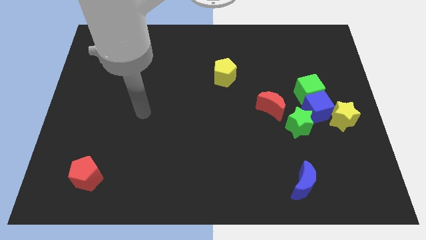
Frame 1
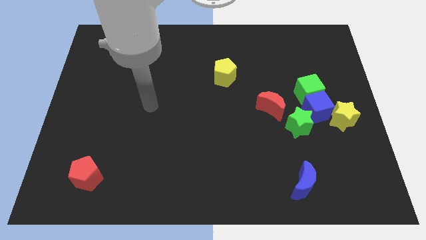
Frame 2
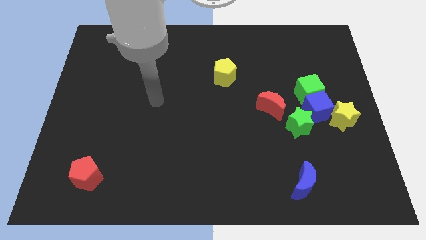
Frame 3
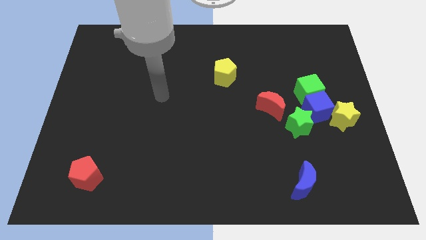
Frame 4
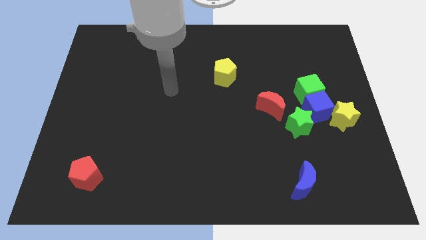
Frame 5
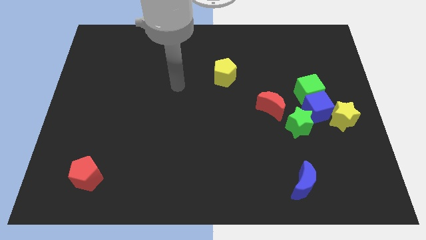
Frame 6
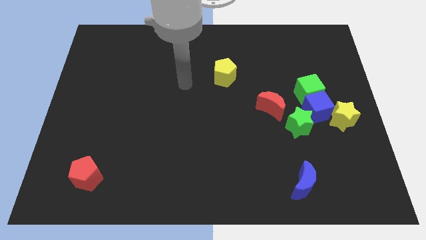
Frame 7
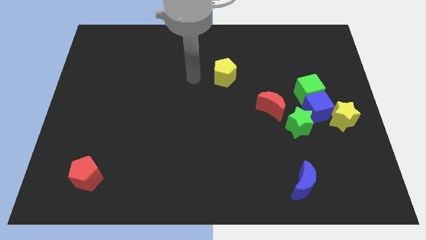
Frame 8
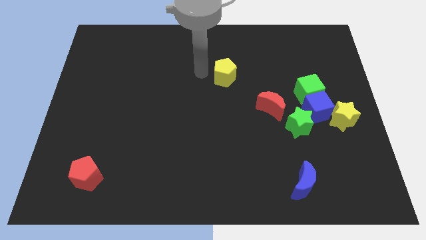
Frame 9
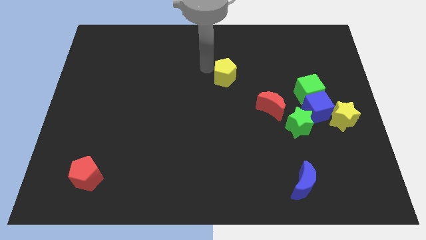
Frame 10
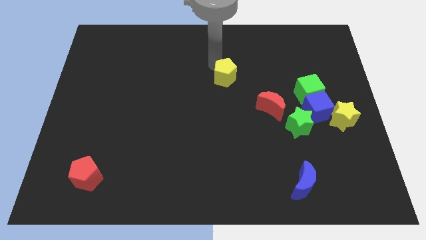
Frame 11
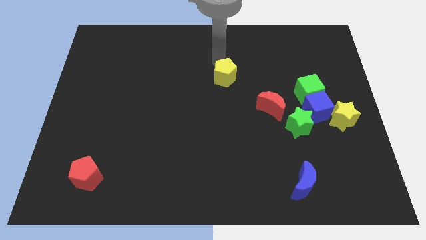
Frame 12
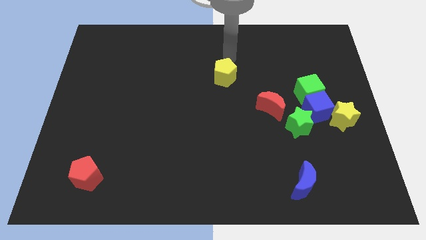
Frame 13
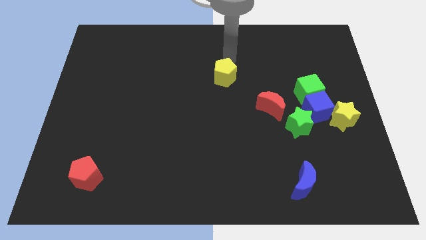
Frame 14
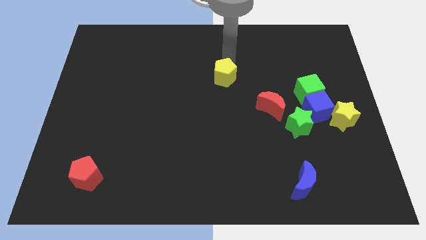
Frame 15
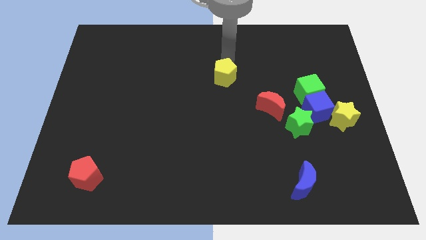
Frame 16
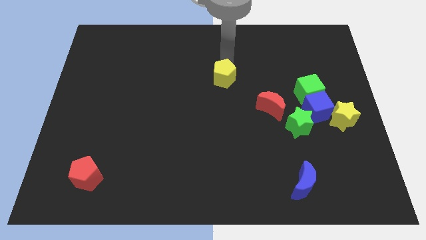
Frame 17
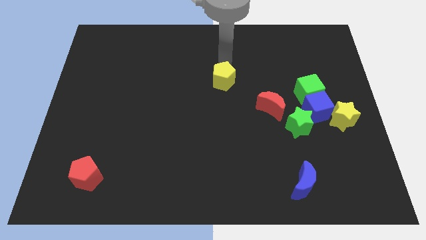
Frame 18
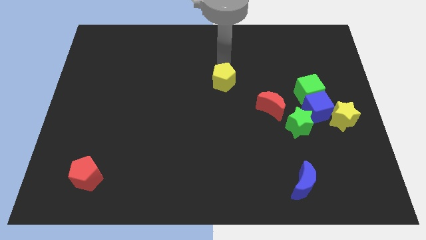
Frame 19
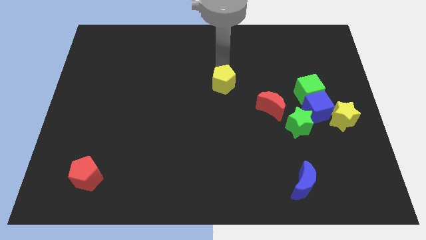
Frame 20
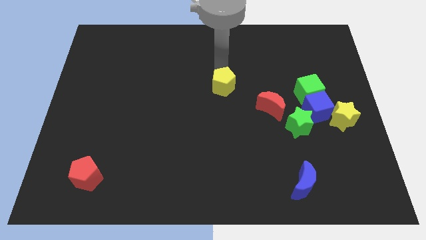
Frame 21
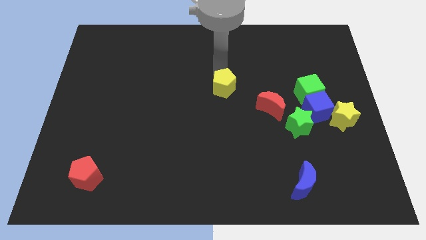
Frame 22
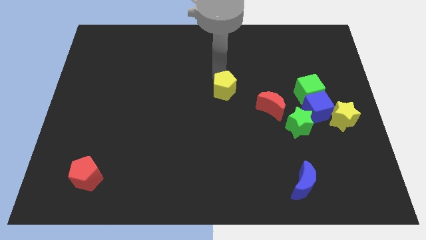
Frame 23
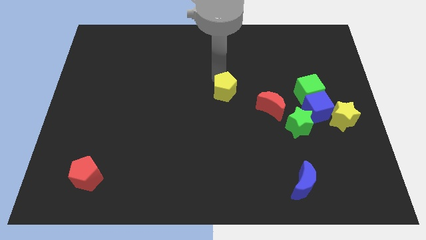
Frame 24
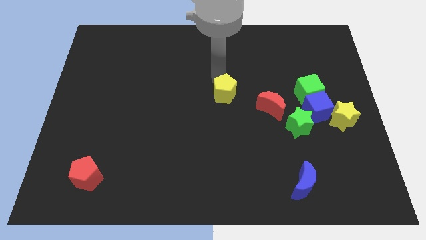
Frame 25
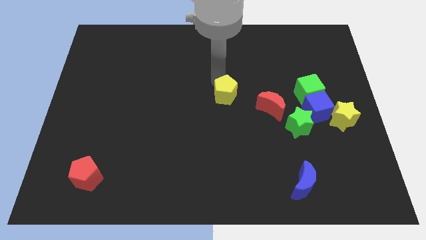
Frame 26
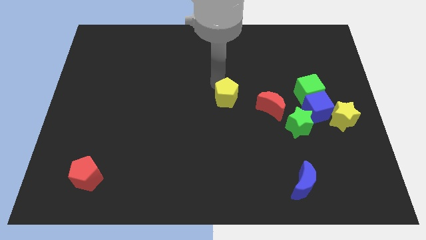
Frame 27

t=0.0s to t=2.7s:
slightly move the yellow pentagon downwards

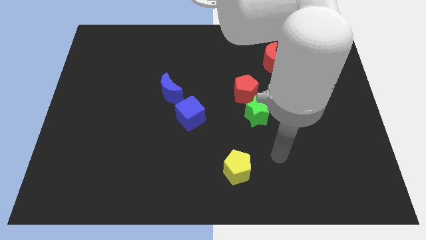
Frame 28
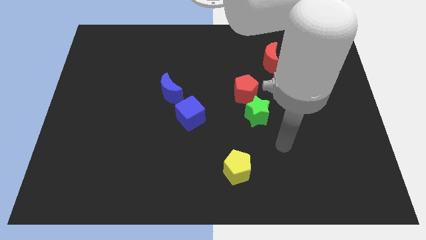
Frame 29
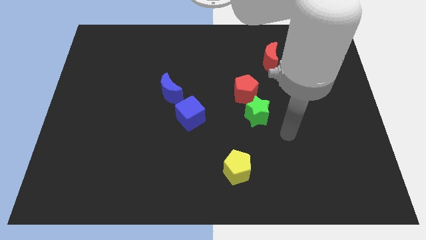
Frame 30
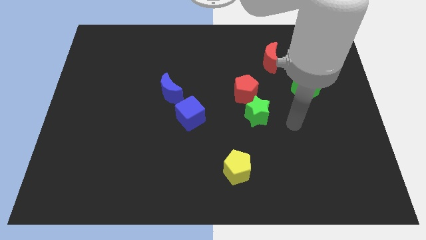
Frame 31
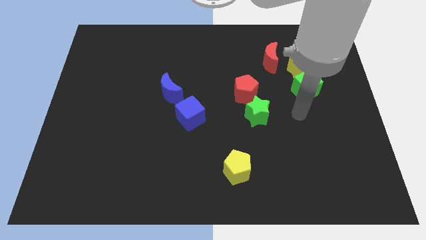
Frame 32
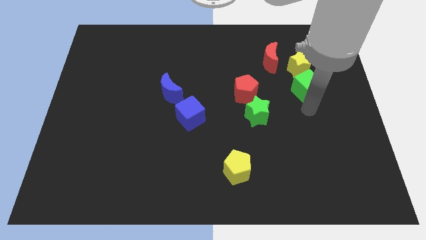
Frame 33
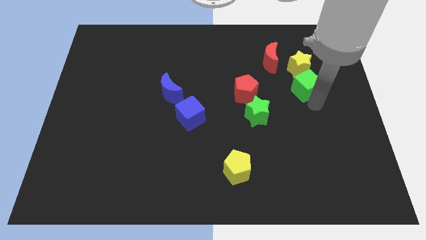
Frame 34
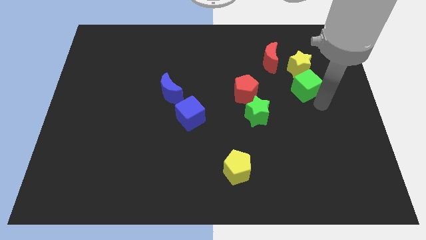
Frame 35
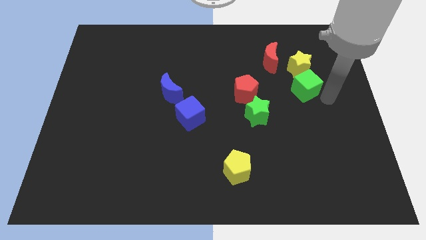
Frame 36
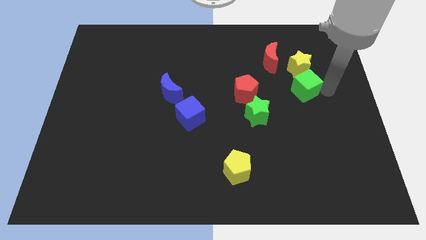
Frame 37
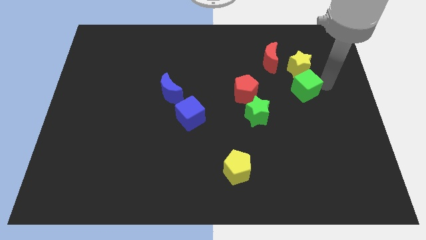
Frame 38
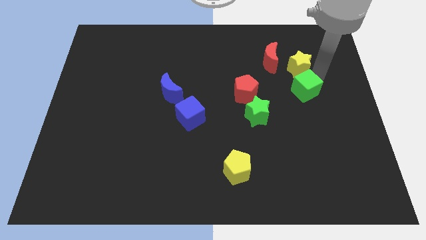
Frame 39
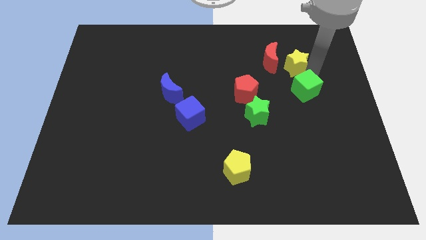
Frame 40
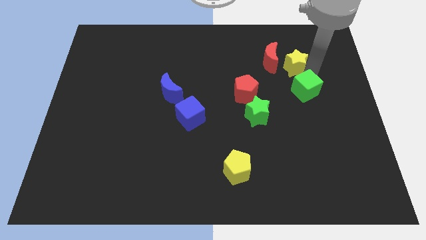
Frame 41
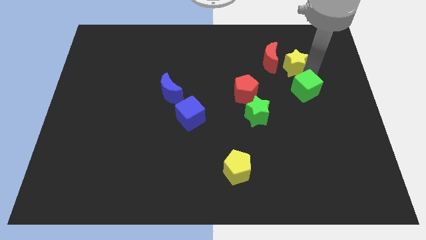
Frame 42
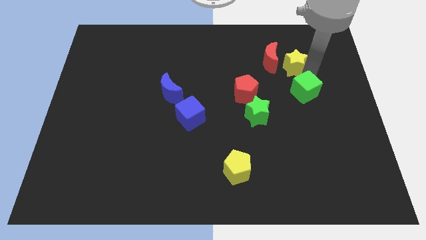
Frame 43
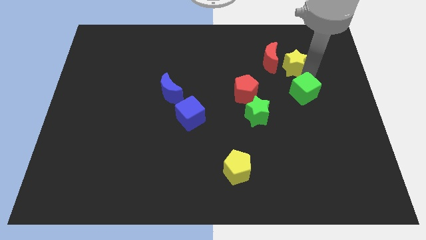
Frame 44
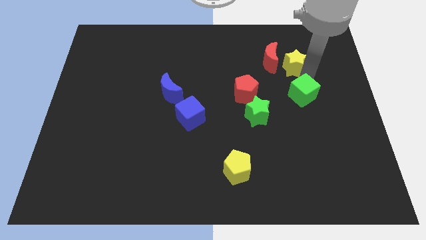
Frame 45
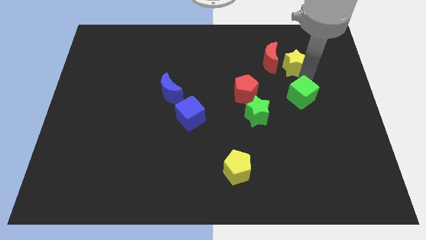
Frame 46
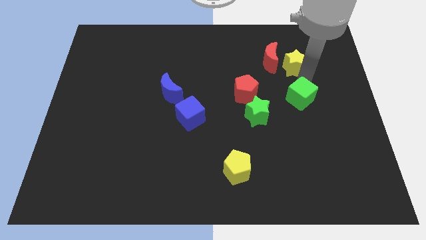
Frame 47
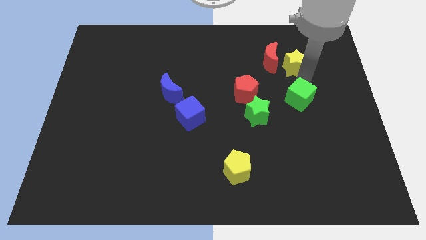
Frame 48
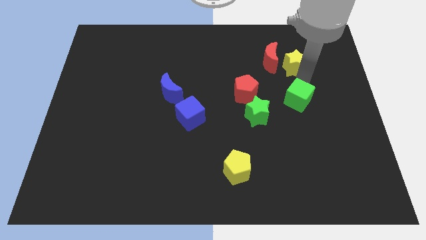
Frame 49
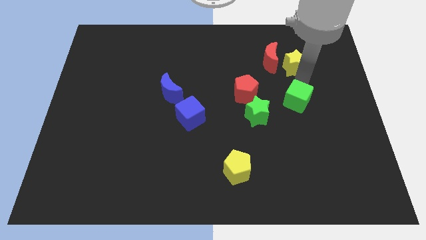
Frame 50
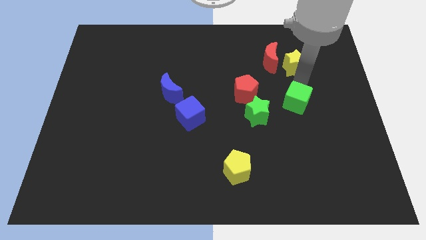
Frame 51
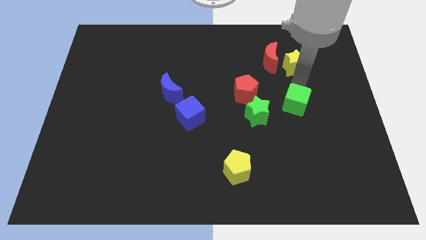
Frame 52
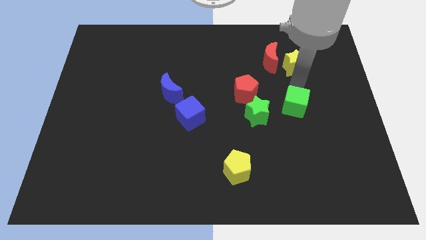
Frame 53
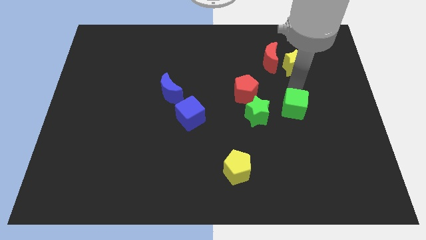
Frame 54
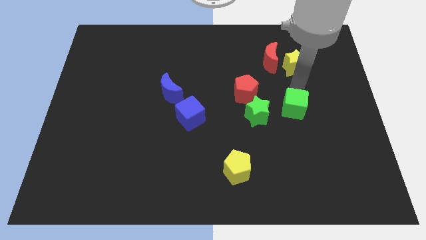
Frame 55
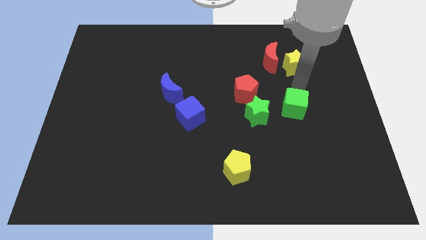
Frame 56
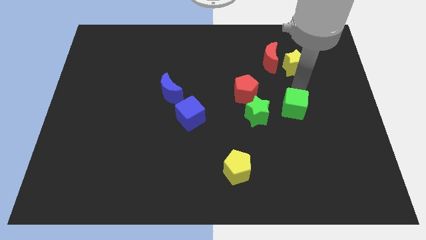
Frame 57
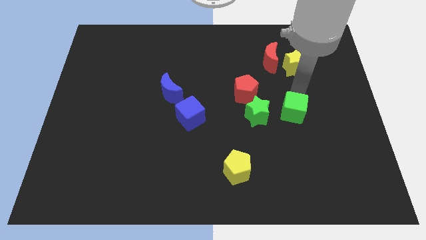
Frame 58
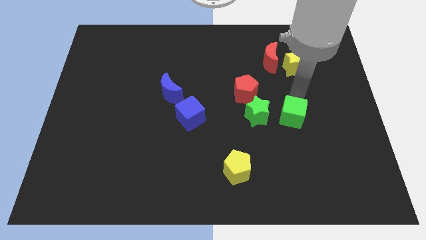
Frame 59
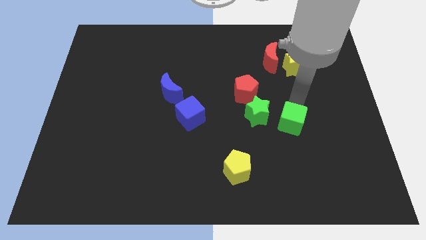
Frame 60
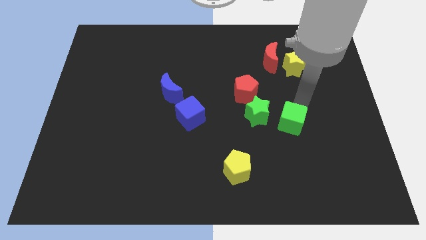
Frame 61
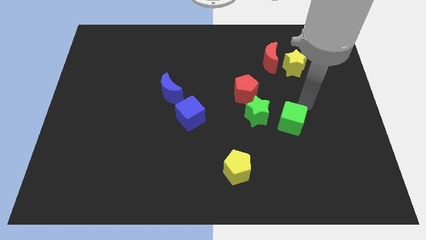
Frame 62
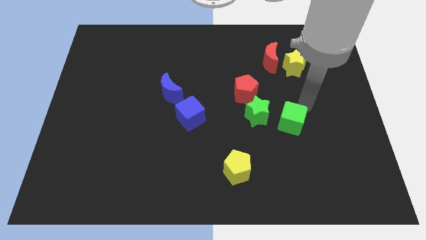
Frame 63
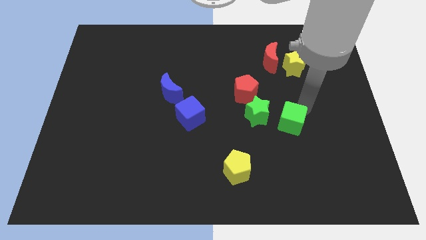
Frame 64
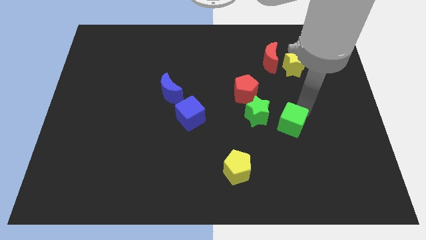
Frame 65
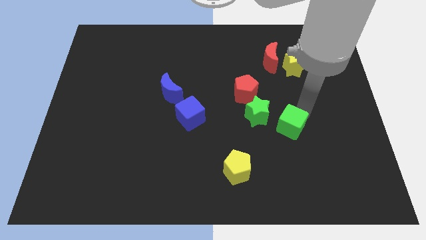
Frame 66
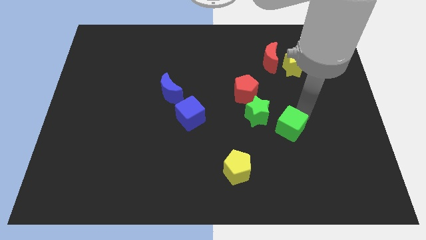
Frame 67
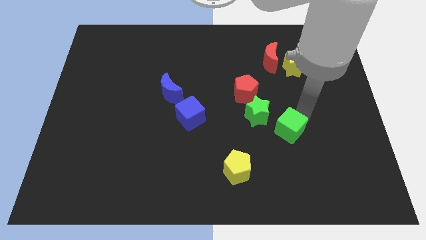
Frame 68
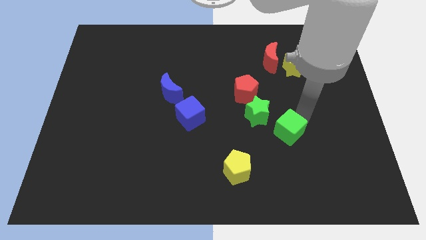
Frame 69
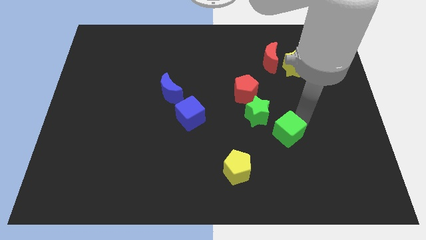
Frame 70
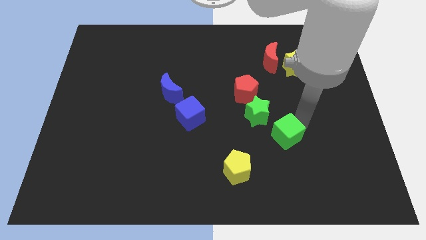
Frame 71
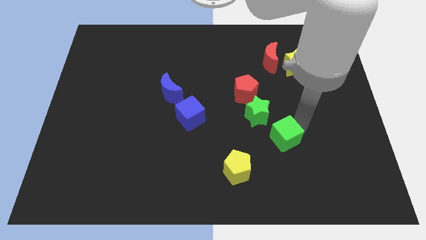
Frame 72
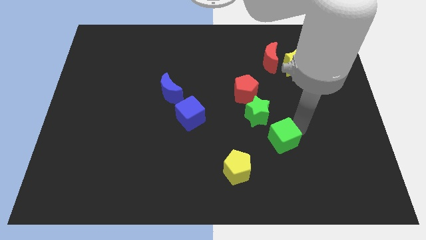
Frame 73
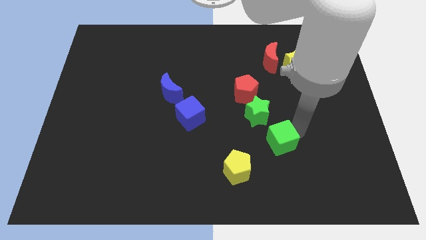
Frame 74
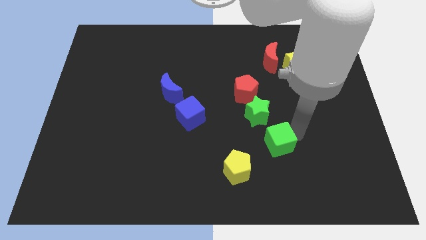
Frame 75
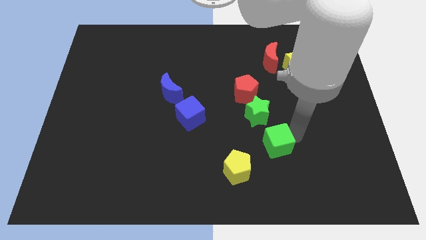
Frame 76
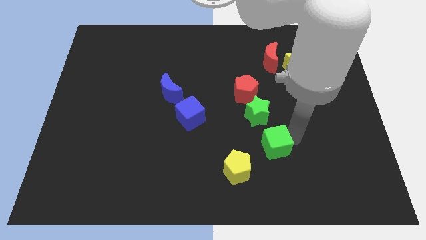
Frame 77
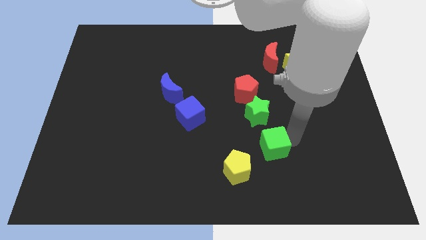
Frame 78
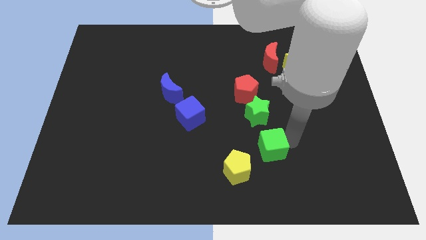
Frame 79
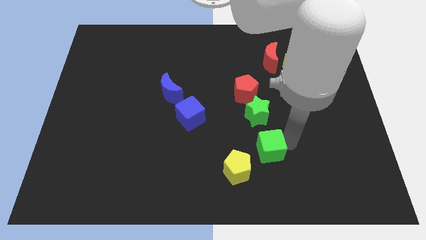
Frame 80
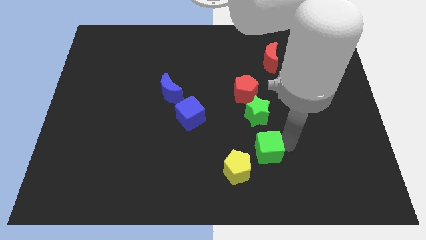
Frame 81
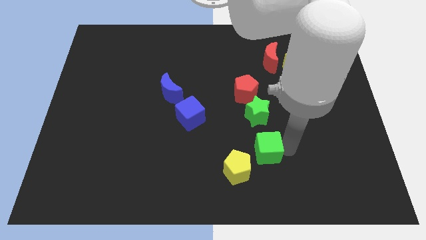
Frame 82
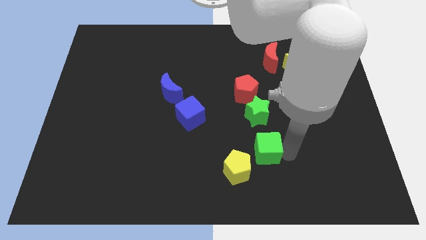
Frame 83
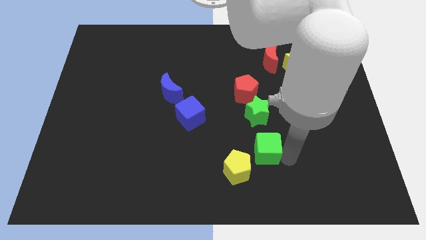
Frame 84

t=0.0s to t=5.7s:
move the green cube diagonally downwards and to the left
